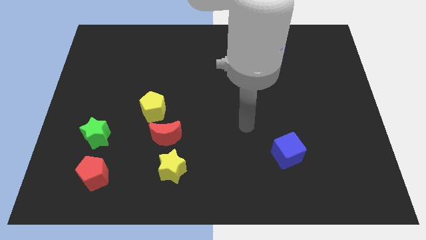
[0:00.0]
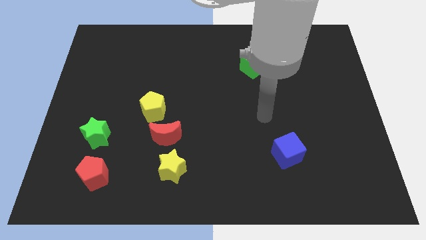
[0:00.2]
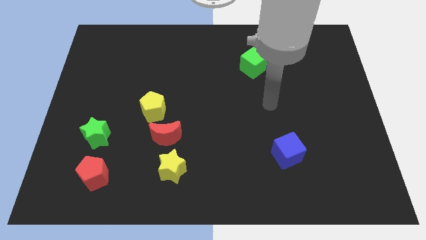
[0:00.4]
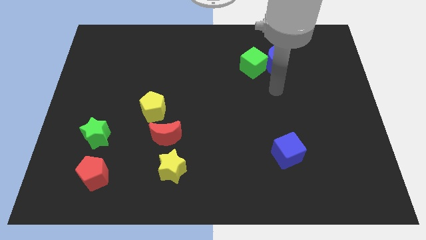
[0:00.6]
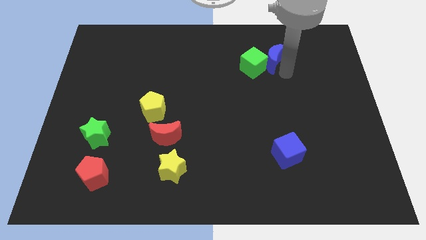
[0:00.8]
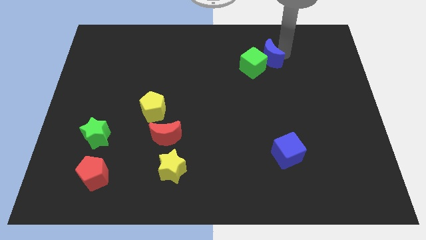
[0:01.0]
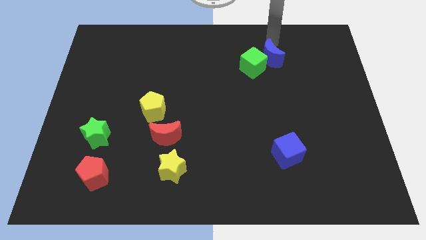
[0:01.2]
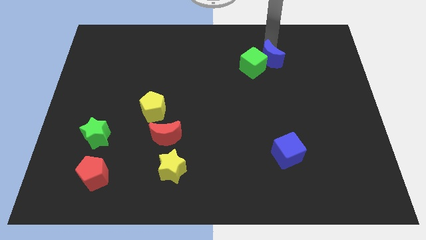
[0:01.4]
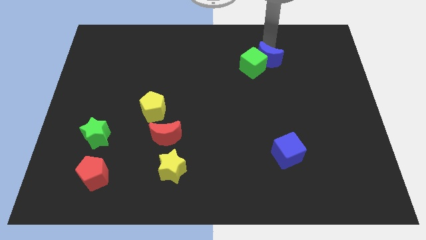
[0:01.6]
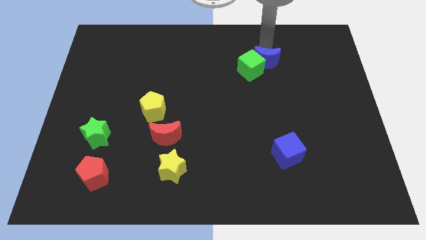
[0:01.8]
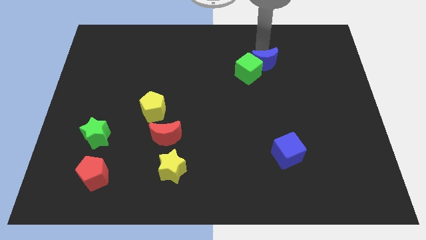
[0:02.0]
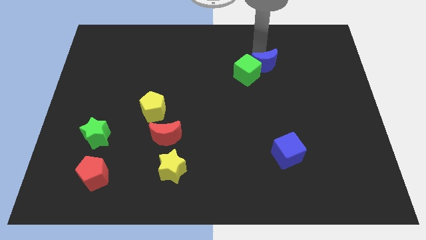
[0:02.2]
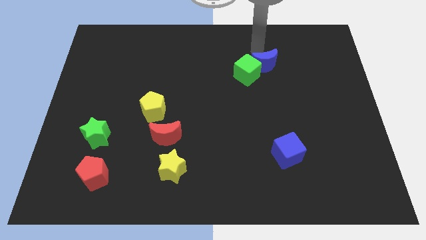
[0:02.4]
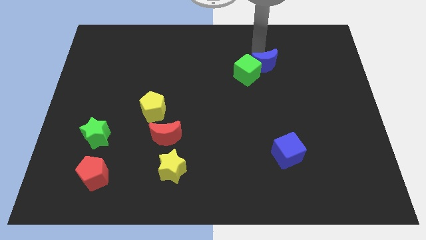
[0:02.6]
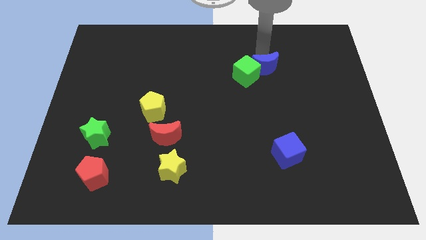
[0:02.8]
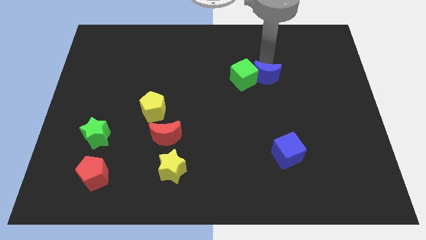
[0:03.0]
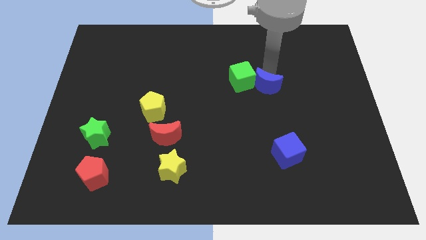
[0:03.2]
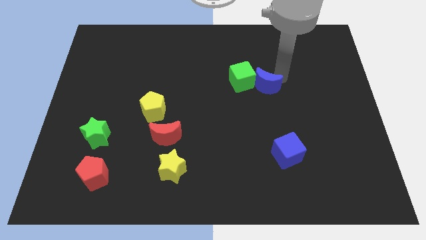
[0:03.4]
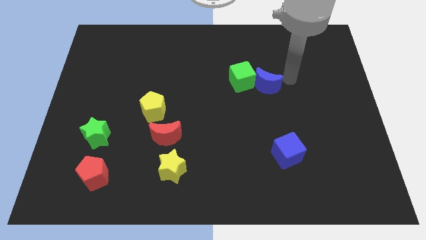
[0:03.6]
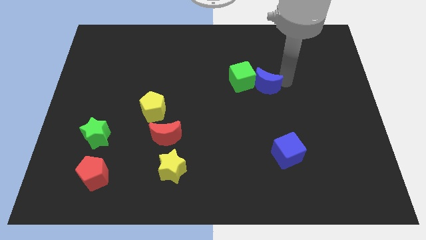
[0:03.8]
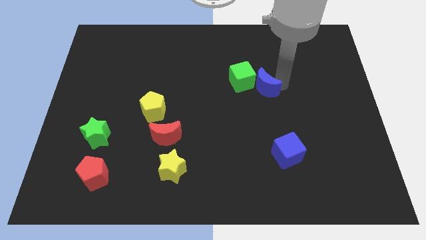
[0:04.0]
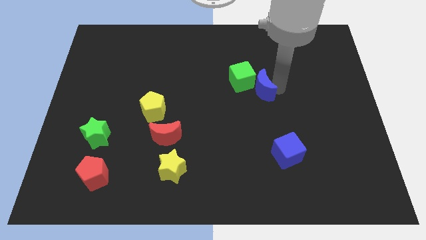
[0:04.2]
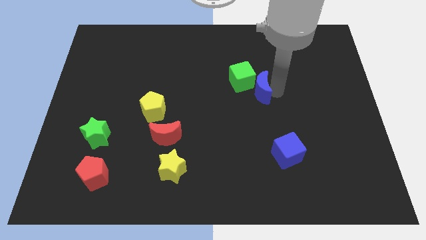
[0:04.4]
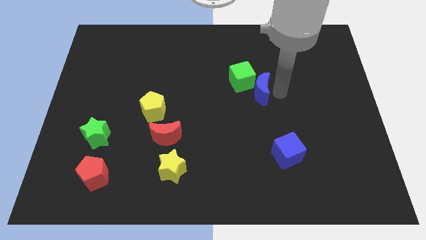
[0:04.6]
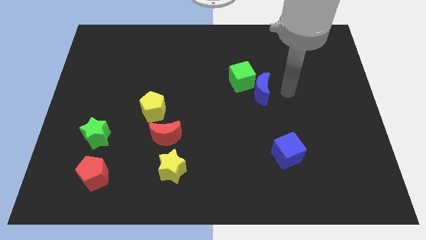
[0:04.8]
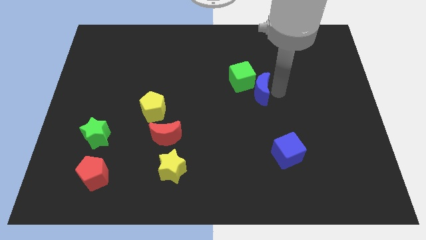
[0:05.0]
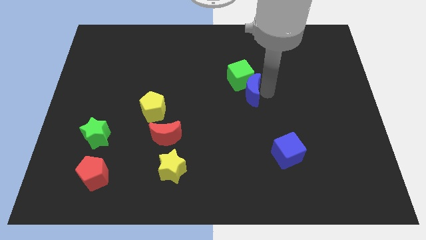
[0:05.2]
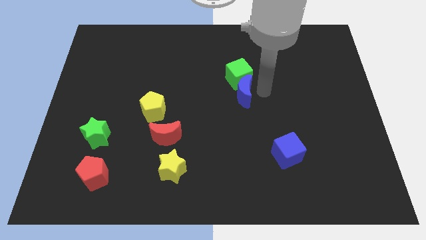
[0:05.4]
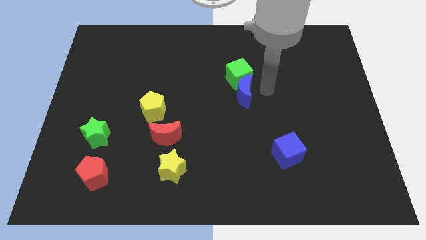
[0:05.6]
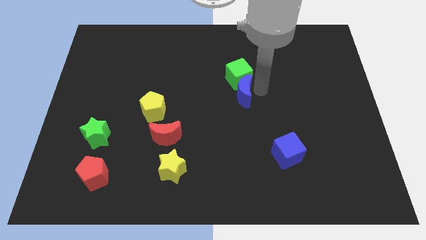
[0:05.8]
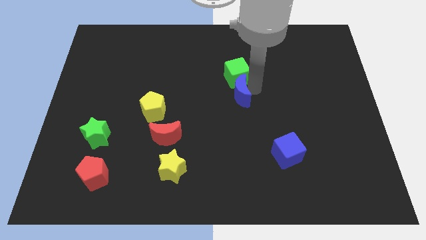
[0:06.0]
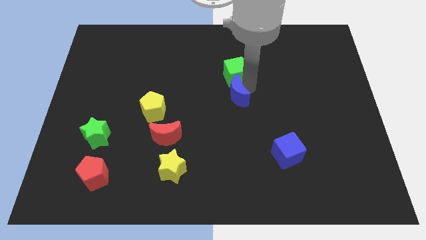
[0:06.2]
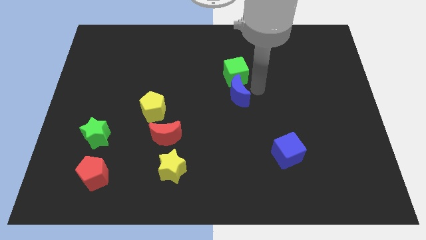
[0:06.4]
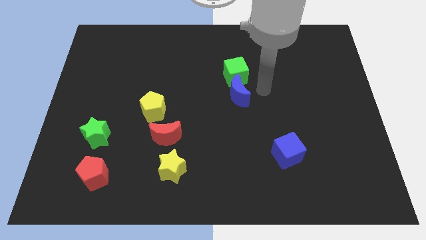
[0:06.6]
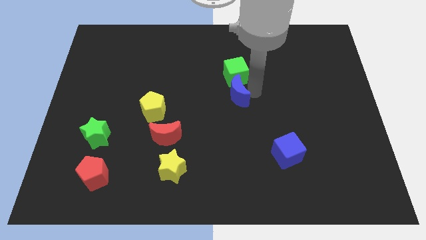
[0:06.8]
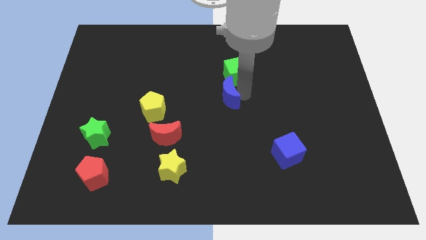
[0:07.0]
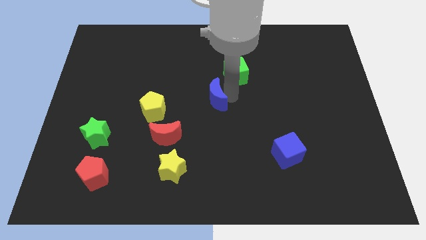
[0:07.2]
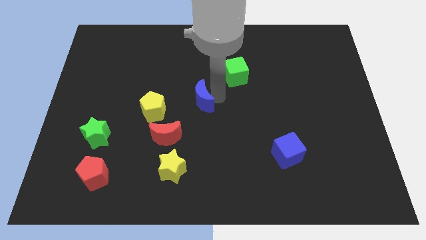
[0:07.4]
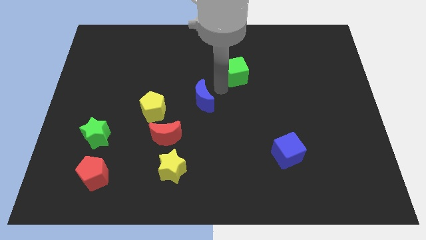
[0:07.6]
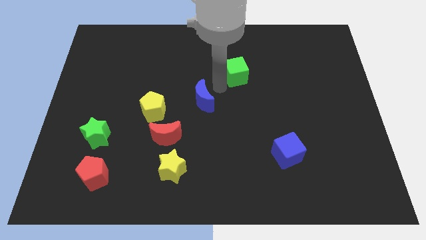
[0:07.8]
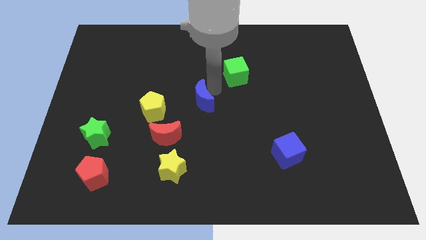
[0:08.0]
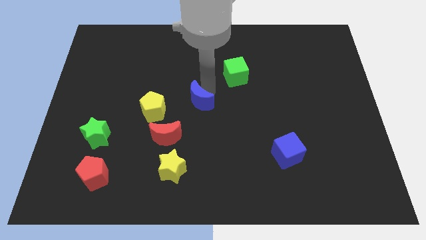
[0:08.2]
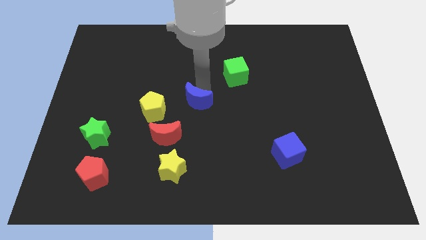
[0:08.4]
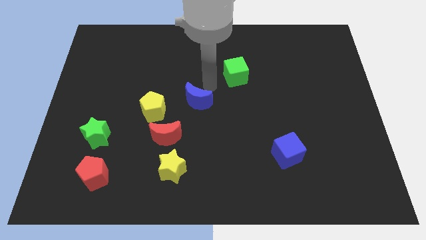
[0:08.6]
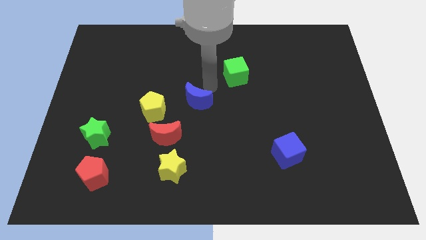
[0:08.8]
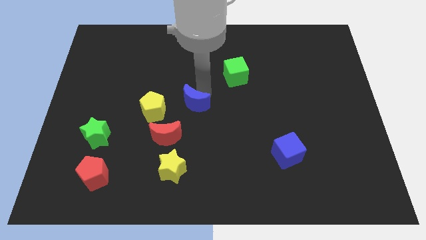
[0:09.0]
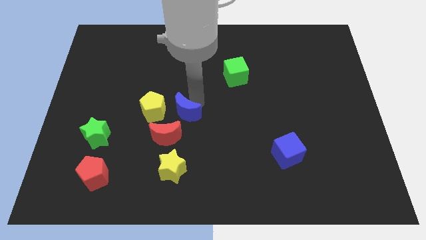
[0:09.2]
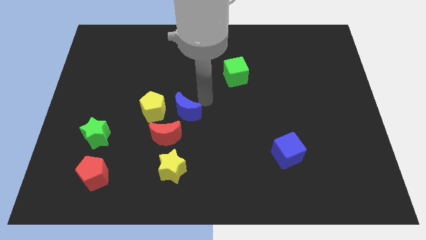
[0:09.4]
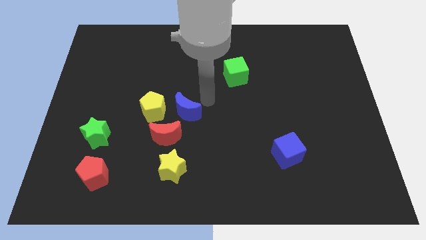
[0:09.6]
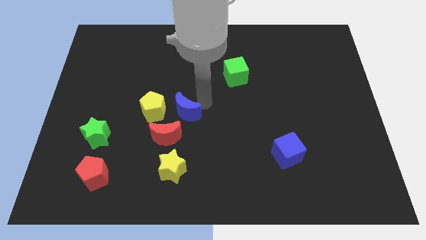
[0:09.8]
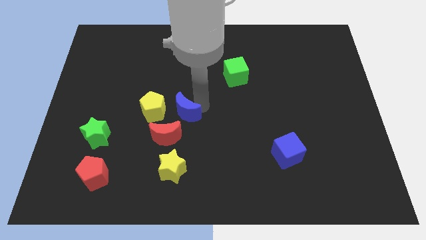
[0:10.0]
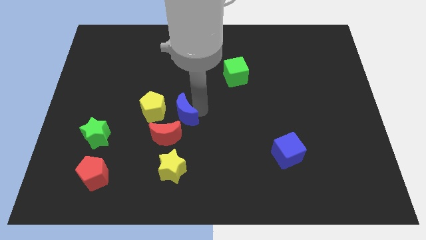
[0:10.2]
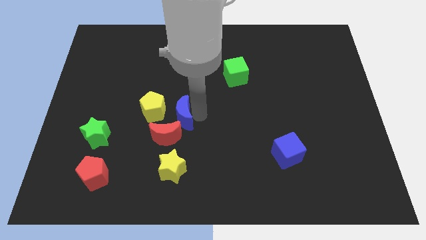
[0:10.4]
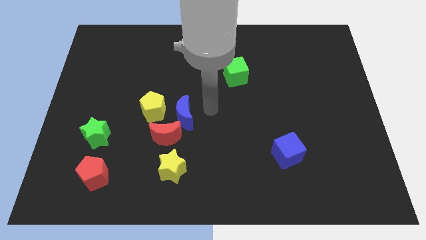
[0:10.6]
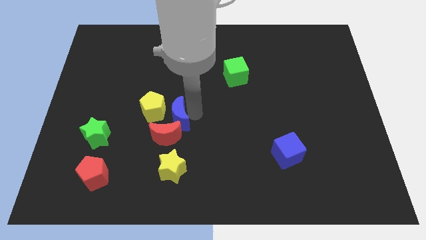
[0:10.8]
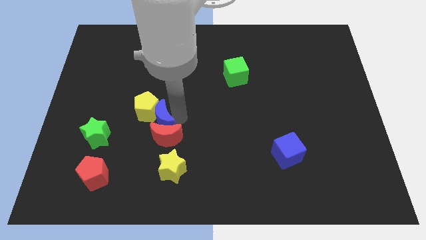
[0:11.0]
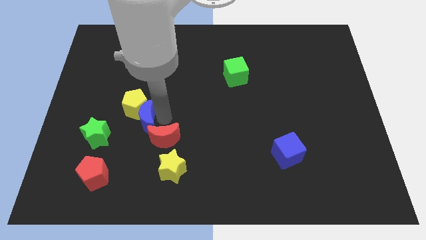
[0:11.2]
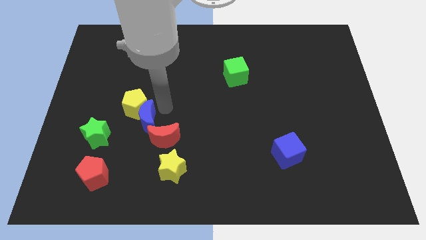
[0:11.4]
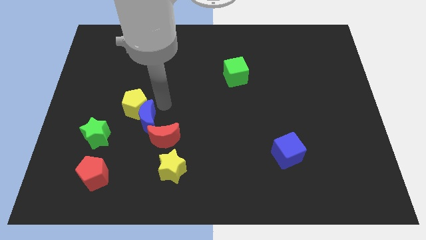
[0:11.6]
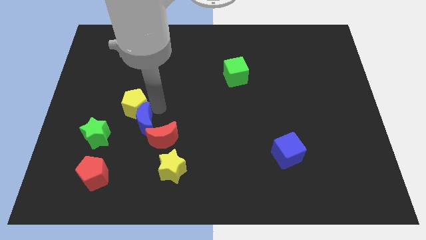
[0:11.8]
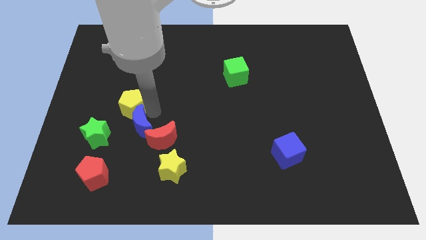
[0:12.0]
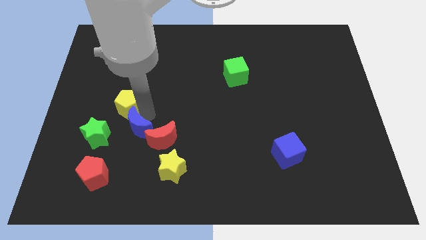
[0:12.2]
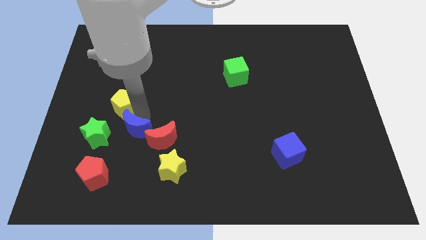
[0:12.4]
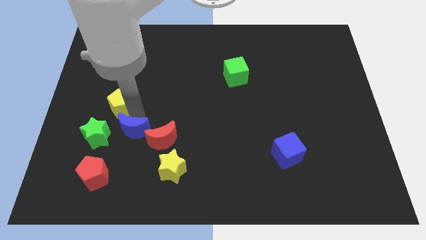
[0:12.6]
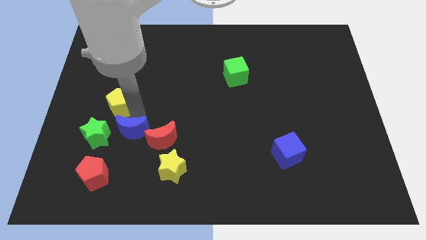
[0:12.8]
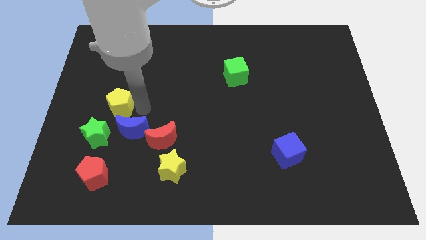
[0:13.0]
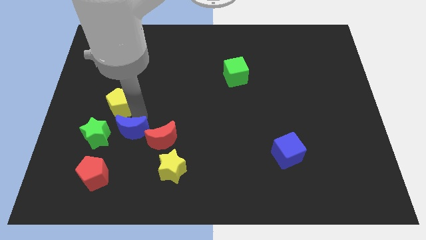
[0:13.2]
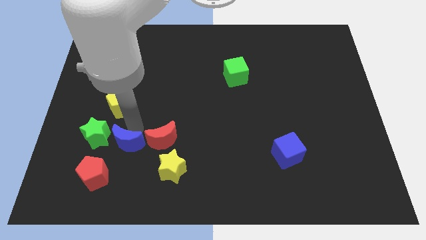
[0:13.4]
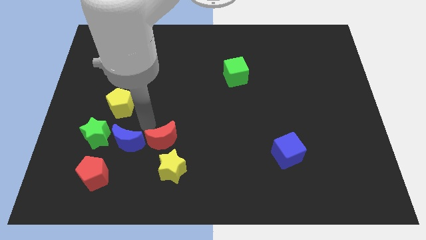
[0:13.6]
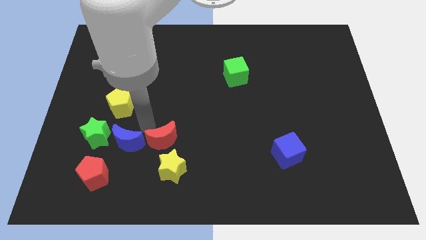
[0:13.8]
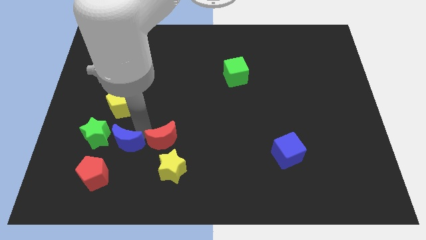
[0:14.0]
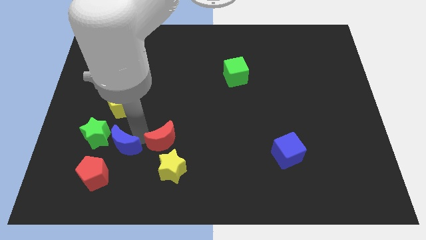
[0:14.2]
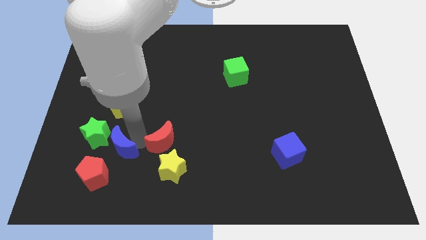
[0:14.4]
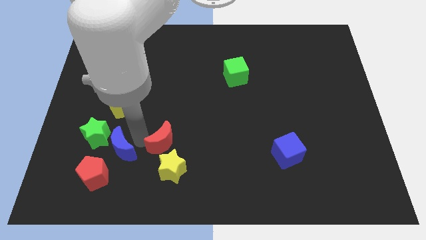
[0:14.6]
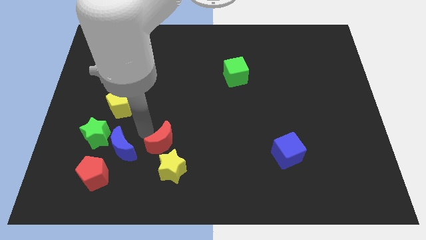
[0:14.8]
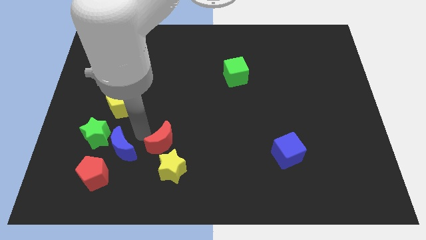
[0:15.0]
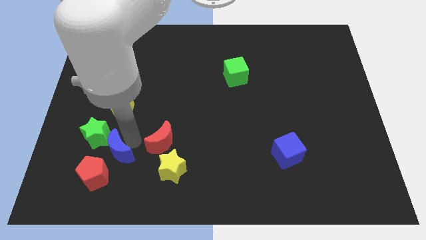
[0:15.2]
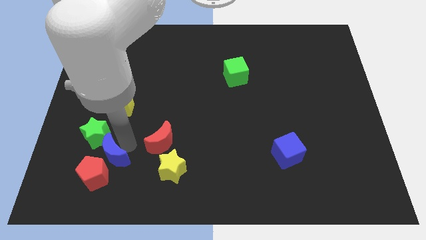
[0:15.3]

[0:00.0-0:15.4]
put the blue moon close to the red pentagon
